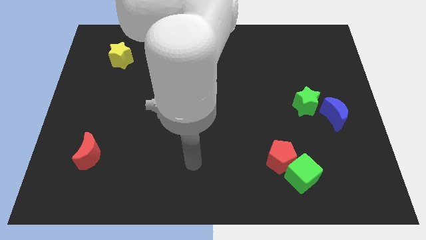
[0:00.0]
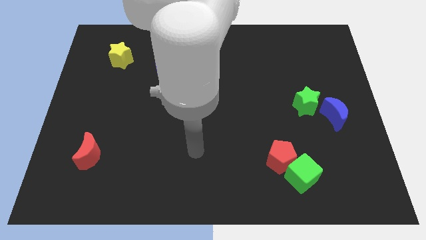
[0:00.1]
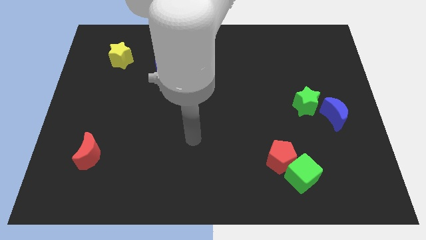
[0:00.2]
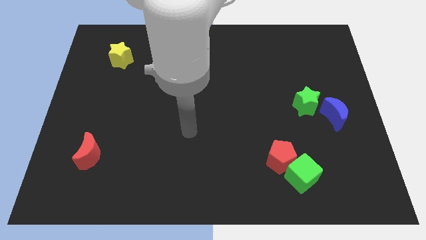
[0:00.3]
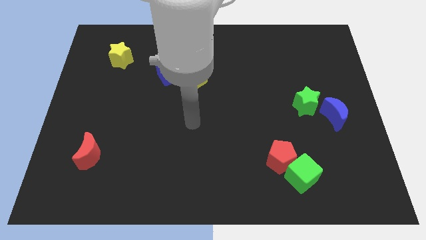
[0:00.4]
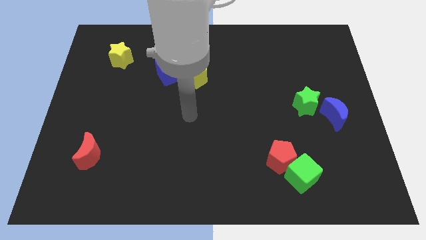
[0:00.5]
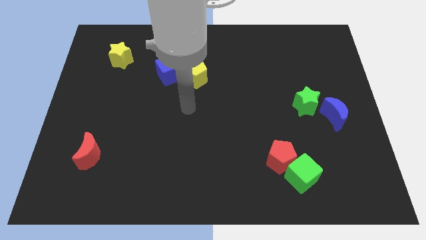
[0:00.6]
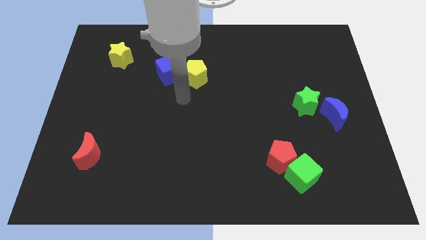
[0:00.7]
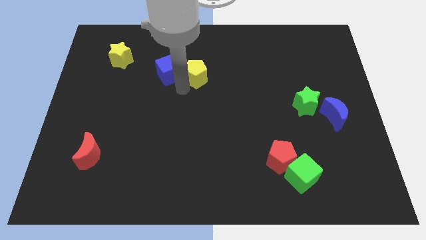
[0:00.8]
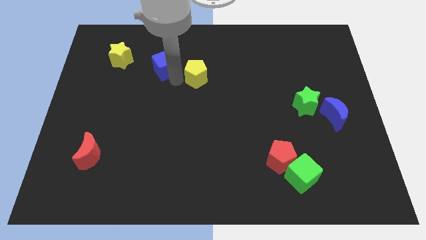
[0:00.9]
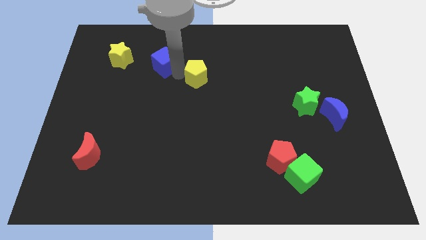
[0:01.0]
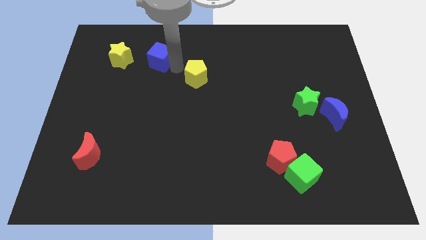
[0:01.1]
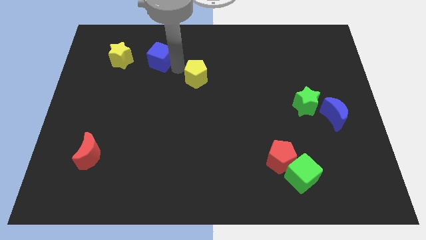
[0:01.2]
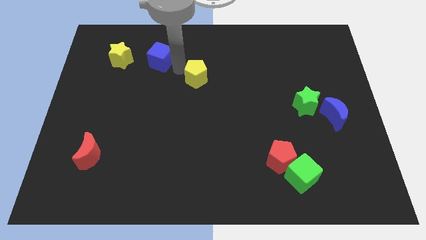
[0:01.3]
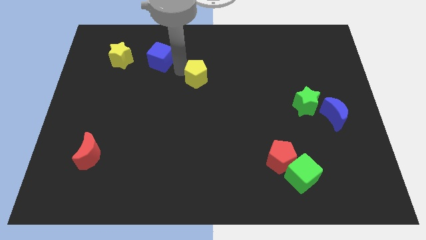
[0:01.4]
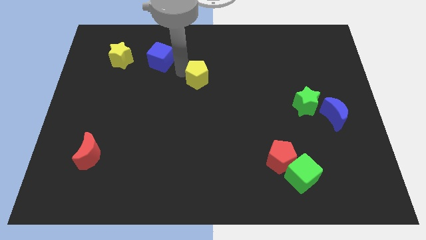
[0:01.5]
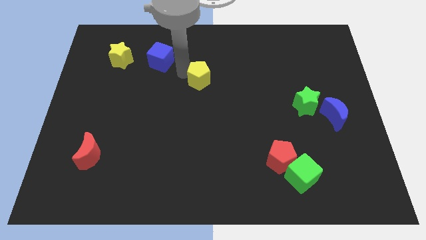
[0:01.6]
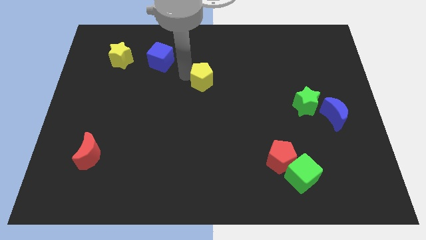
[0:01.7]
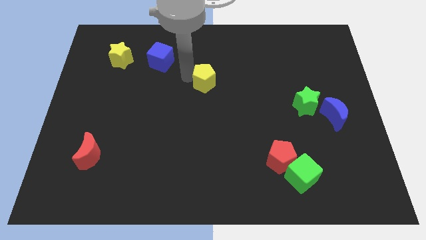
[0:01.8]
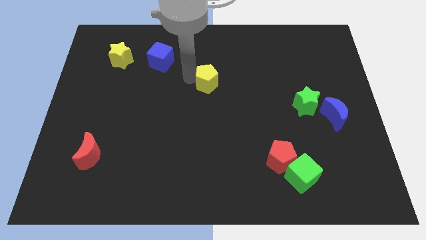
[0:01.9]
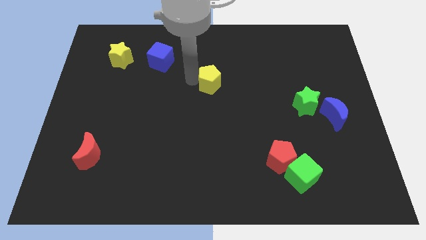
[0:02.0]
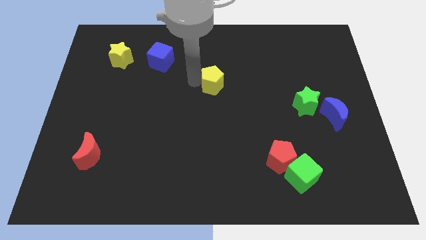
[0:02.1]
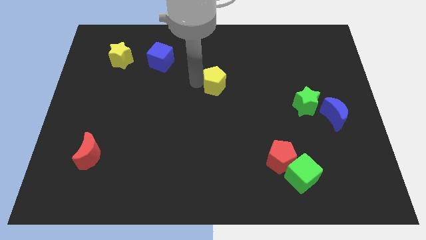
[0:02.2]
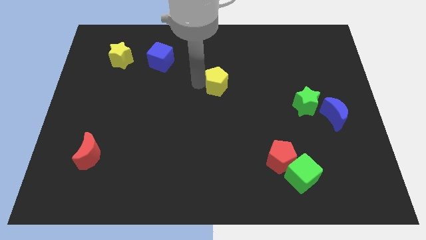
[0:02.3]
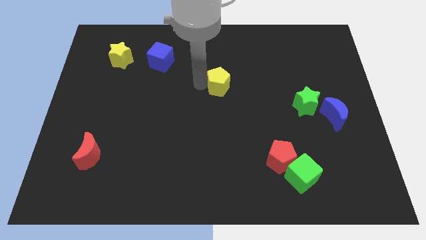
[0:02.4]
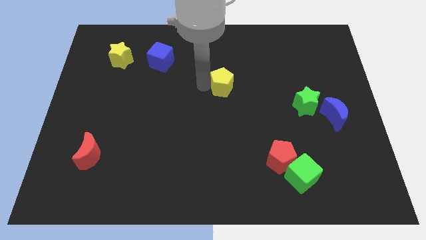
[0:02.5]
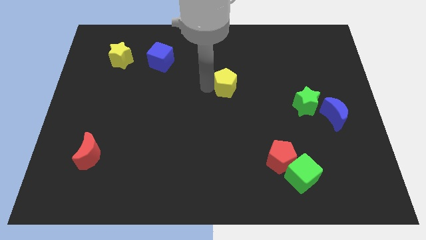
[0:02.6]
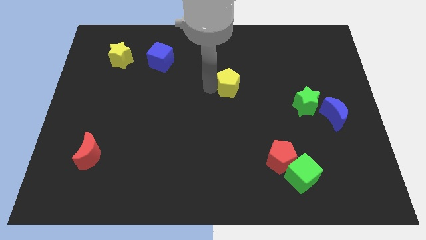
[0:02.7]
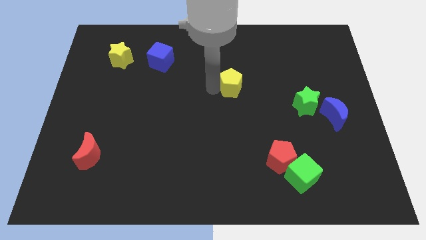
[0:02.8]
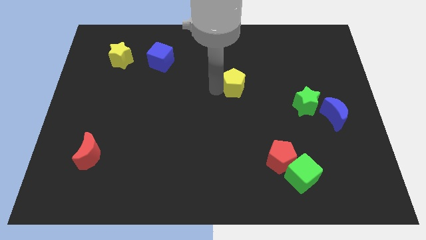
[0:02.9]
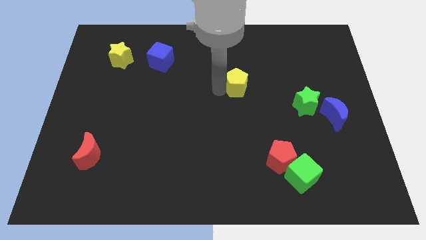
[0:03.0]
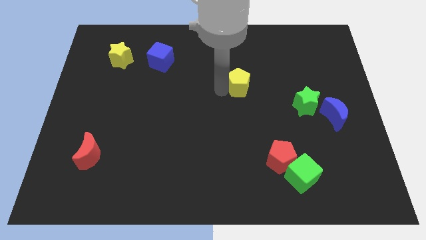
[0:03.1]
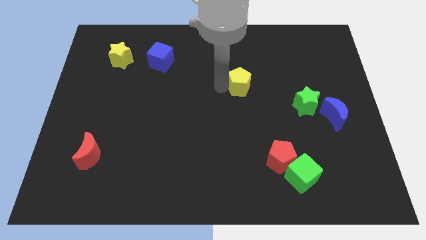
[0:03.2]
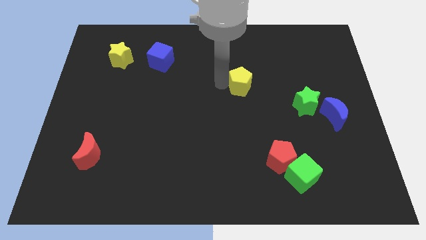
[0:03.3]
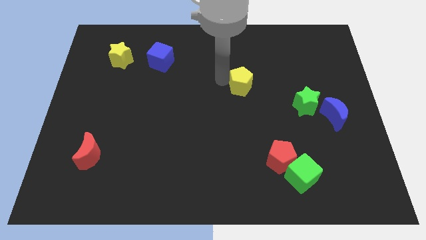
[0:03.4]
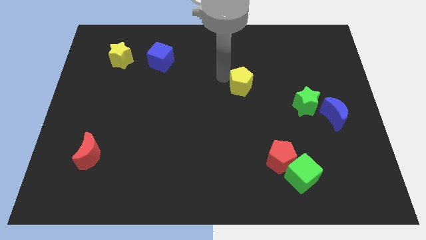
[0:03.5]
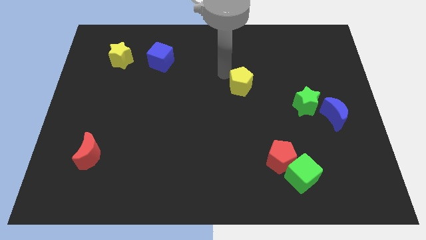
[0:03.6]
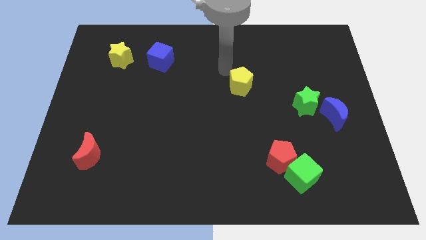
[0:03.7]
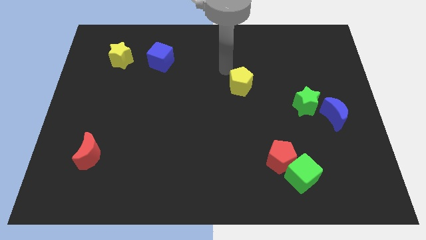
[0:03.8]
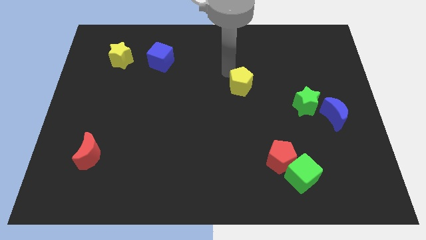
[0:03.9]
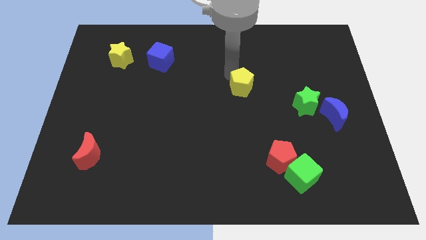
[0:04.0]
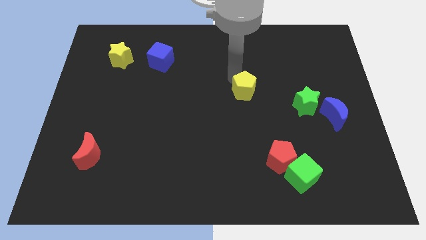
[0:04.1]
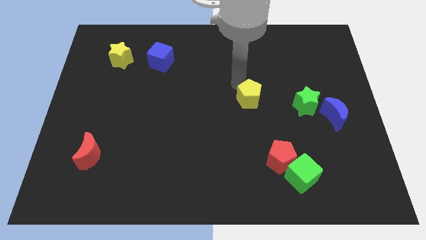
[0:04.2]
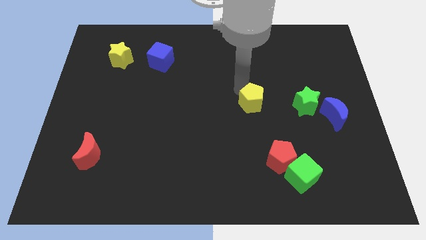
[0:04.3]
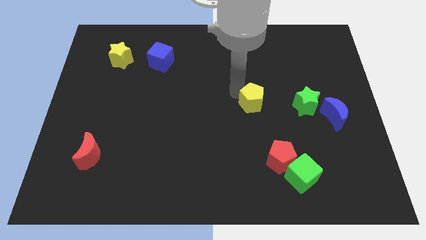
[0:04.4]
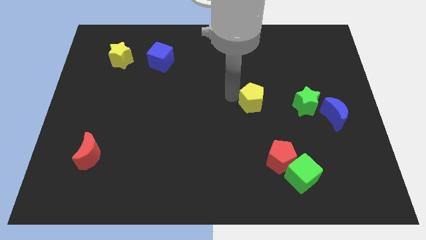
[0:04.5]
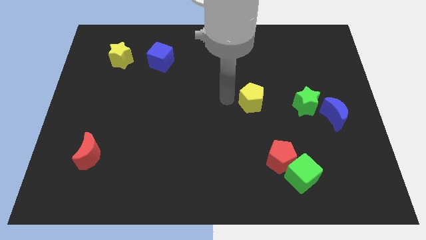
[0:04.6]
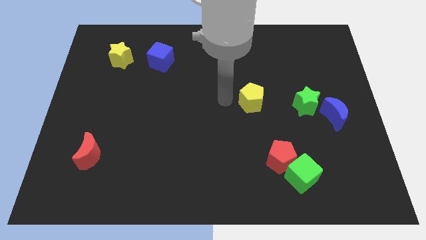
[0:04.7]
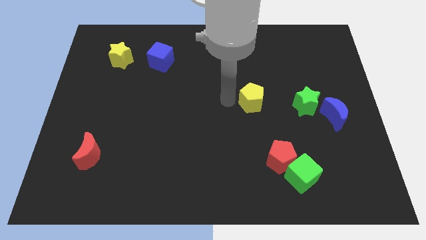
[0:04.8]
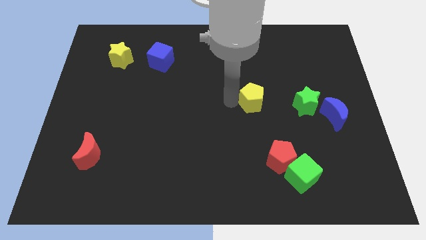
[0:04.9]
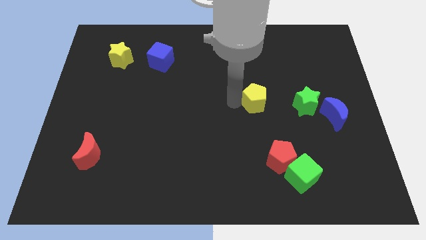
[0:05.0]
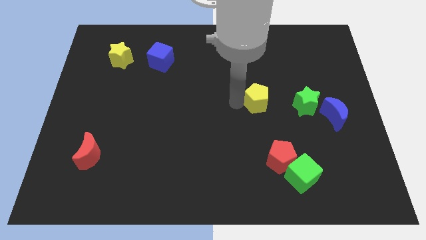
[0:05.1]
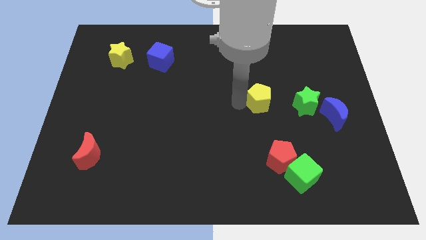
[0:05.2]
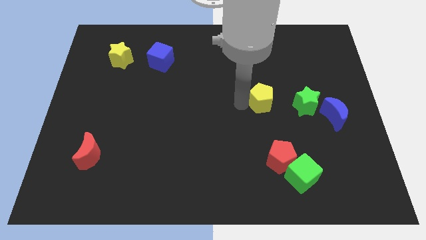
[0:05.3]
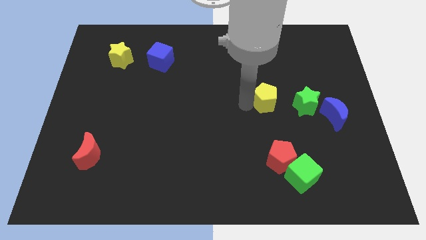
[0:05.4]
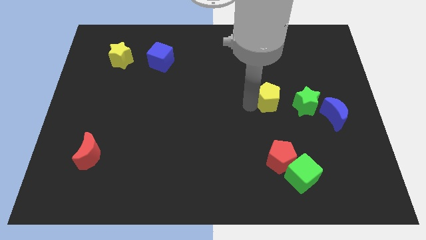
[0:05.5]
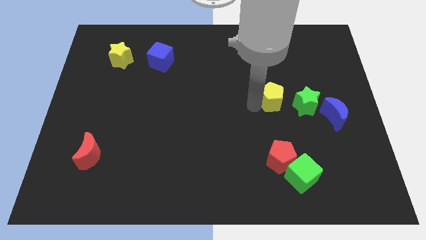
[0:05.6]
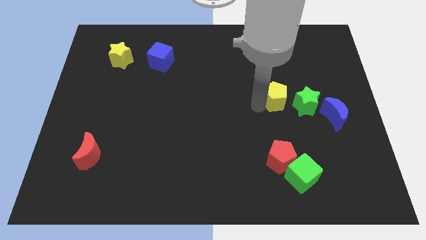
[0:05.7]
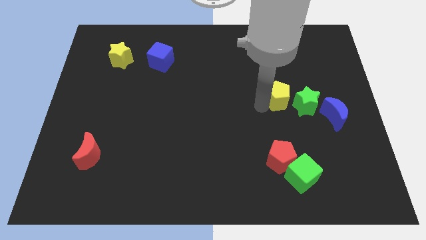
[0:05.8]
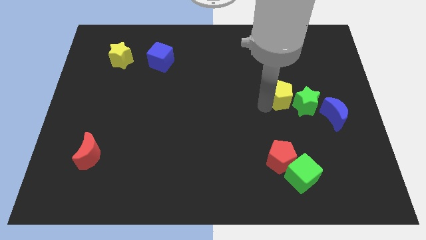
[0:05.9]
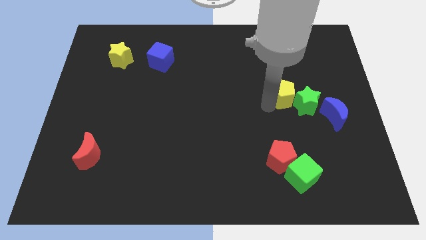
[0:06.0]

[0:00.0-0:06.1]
push the yellow pentagon towards the green star

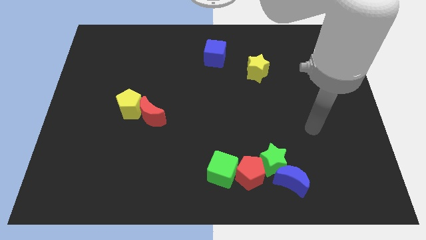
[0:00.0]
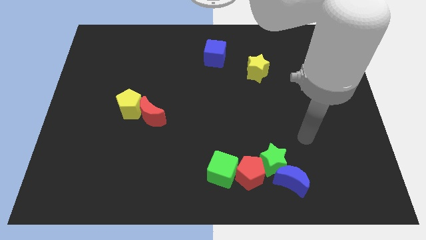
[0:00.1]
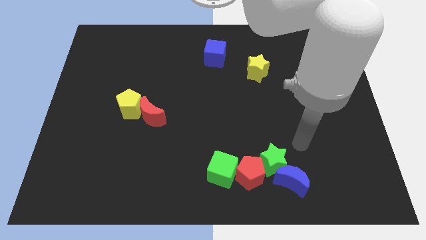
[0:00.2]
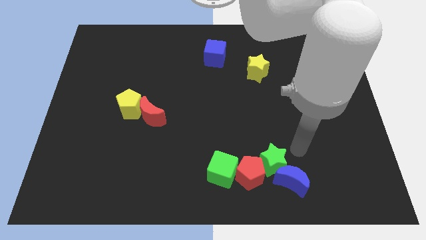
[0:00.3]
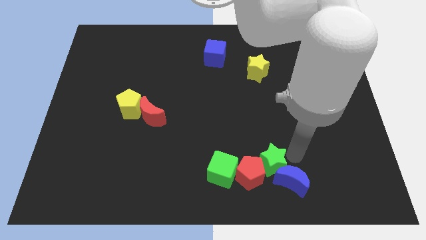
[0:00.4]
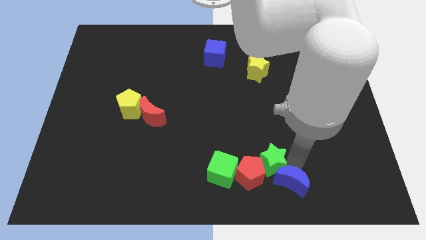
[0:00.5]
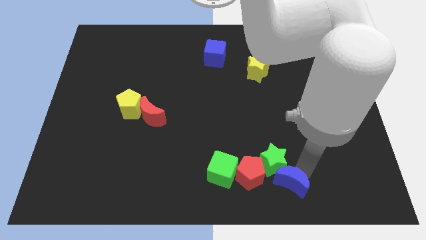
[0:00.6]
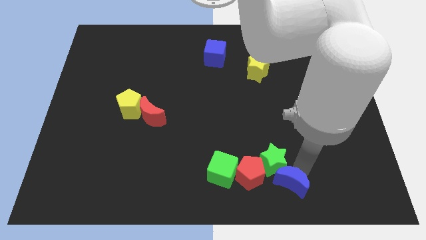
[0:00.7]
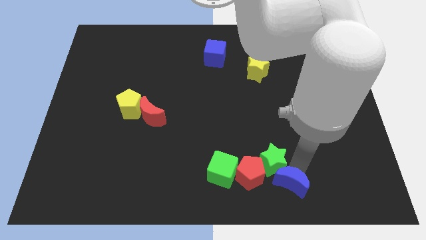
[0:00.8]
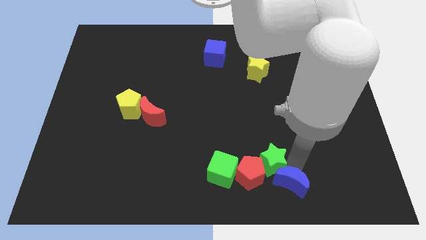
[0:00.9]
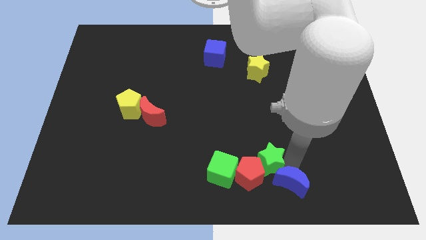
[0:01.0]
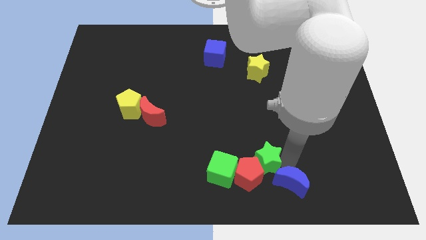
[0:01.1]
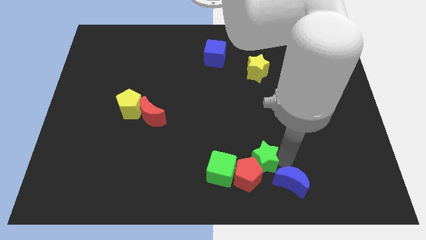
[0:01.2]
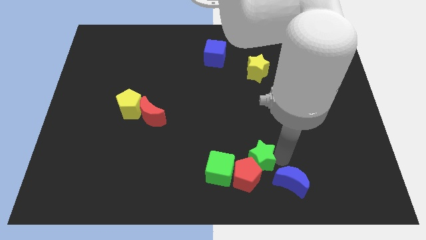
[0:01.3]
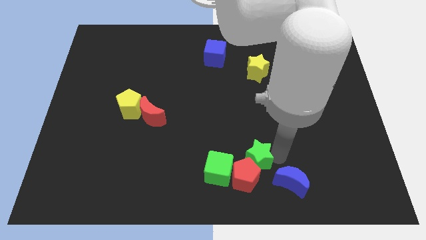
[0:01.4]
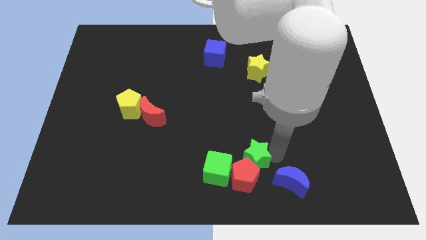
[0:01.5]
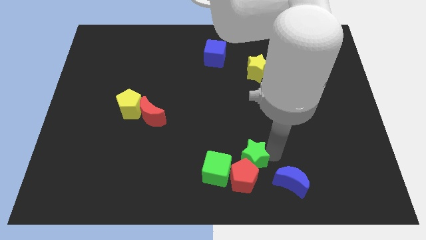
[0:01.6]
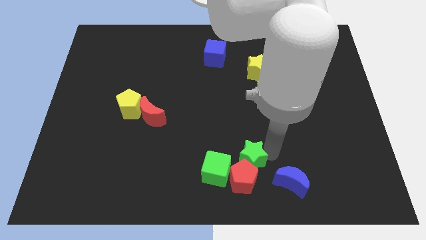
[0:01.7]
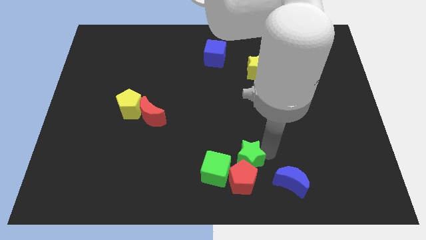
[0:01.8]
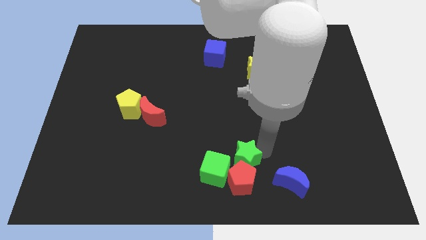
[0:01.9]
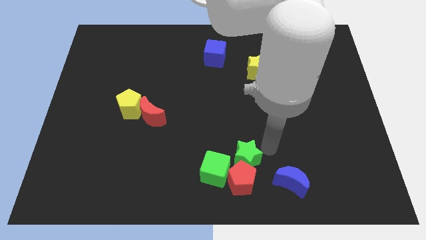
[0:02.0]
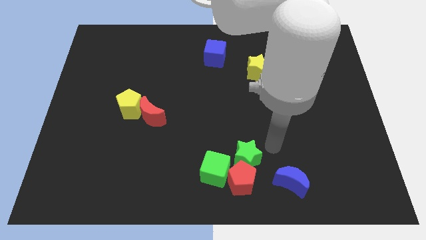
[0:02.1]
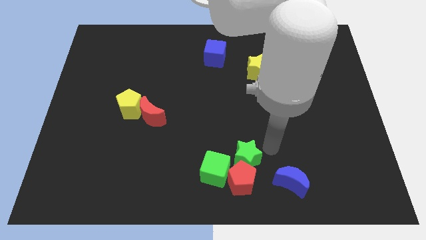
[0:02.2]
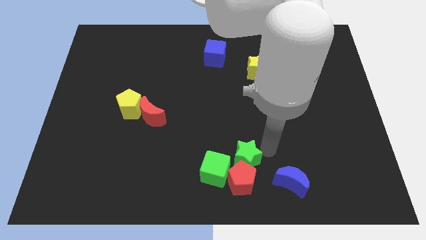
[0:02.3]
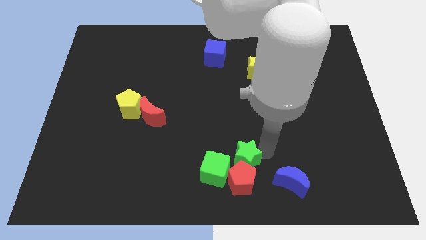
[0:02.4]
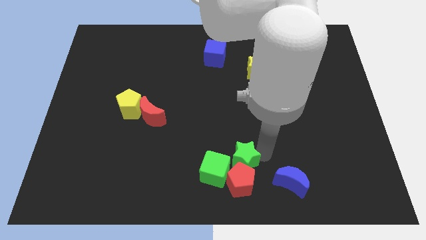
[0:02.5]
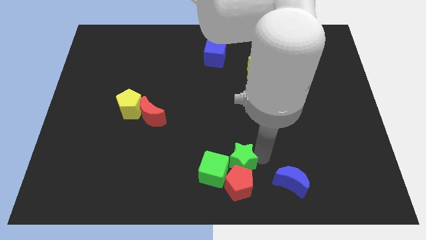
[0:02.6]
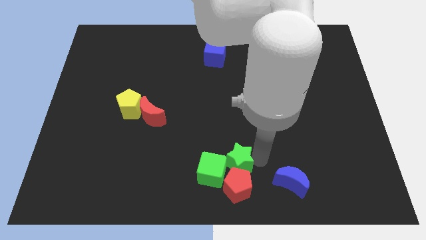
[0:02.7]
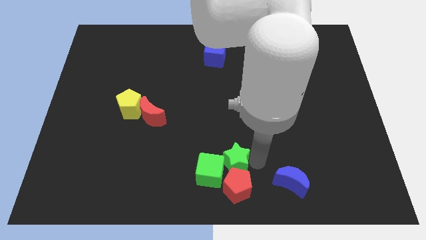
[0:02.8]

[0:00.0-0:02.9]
move the green star next to the green cube
